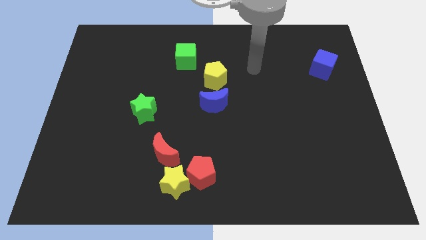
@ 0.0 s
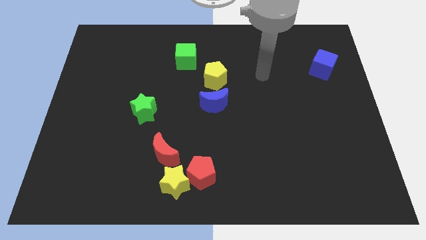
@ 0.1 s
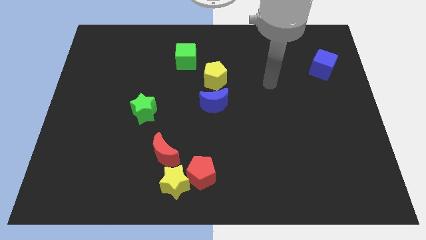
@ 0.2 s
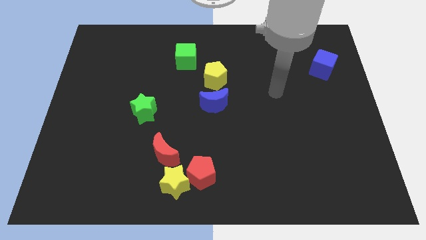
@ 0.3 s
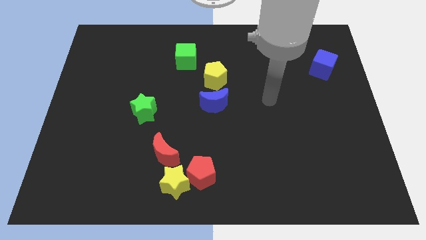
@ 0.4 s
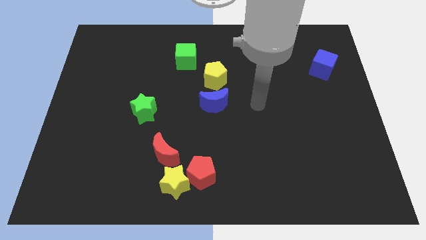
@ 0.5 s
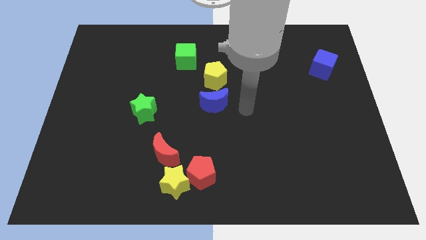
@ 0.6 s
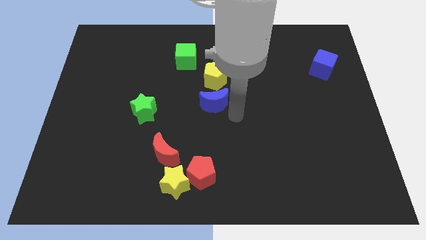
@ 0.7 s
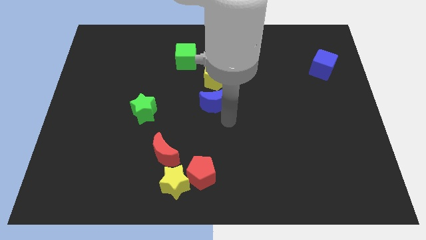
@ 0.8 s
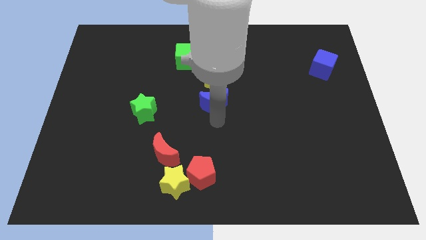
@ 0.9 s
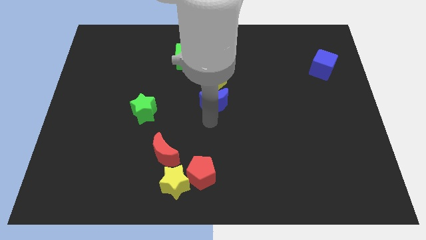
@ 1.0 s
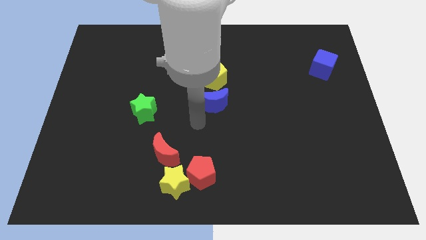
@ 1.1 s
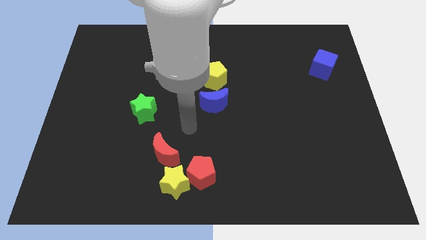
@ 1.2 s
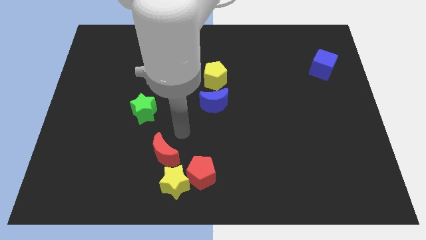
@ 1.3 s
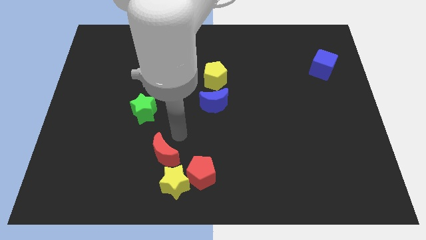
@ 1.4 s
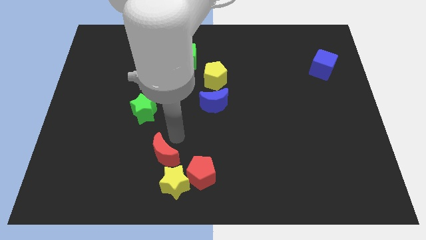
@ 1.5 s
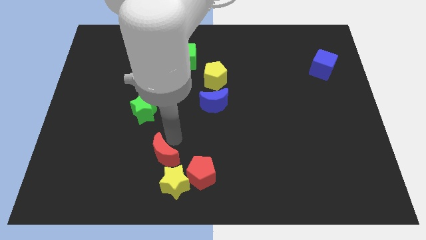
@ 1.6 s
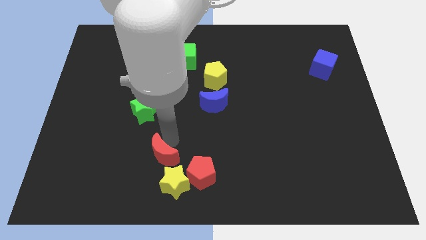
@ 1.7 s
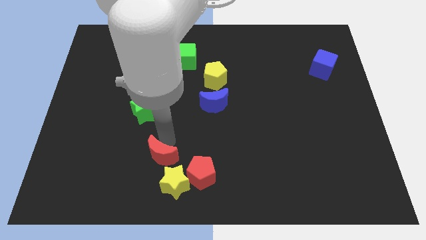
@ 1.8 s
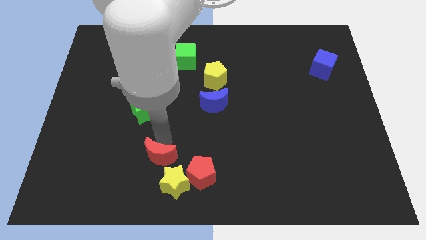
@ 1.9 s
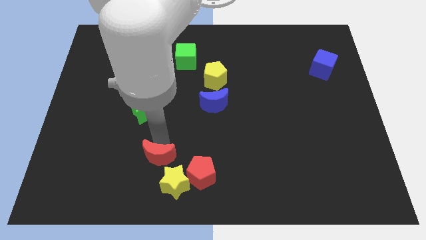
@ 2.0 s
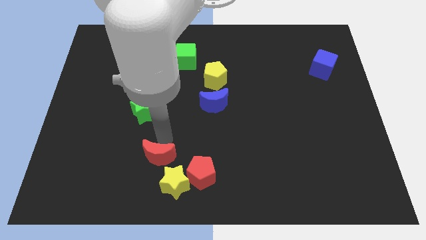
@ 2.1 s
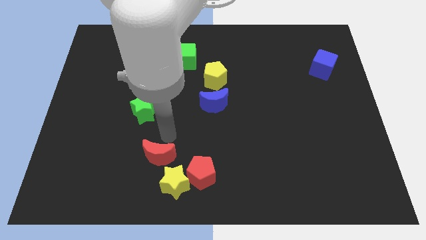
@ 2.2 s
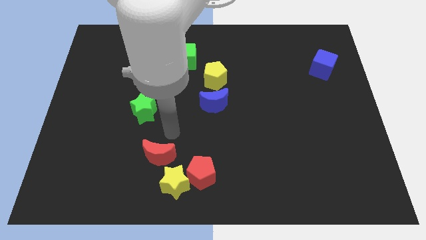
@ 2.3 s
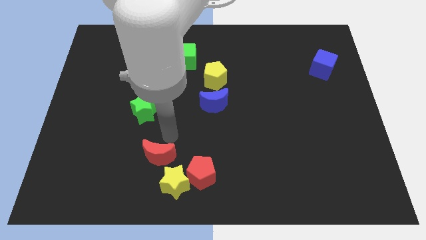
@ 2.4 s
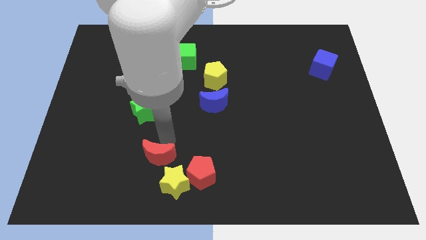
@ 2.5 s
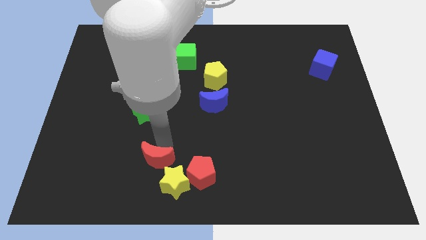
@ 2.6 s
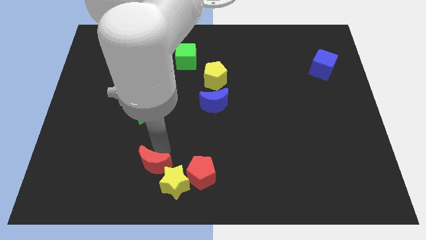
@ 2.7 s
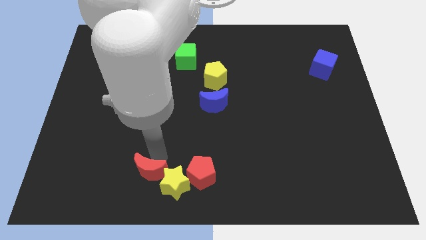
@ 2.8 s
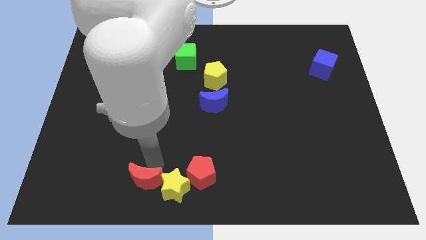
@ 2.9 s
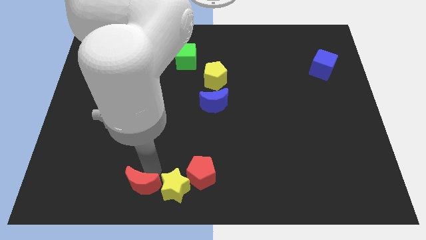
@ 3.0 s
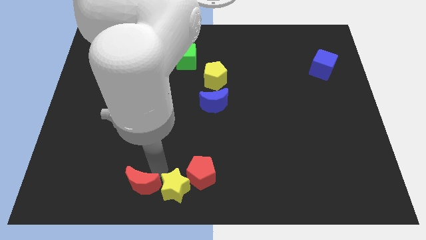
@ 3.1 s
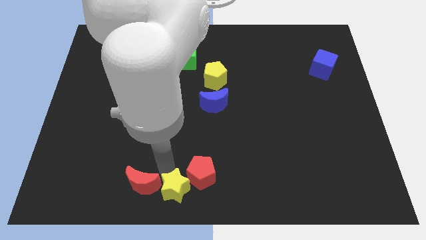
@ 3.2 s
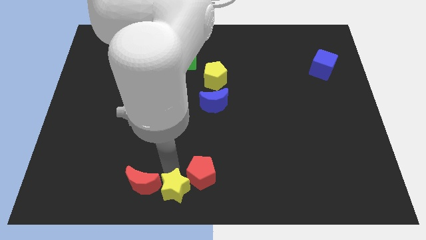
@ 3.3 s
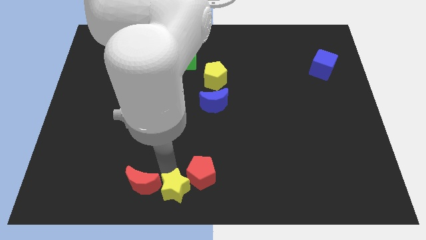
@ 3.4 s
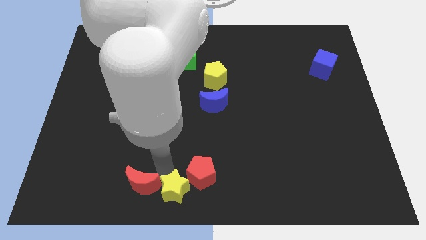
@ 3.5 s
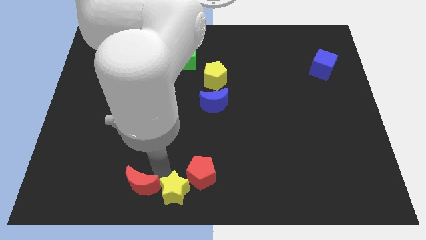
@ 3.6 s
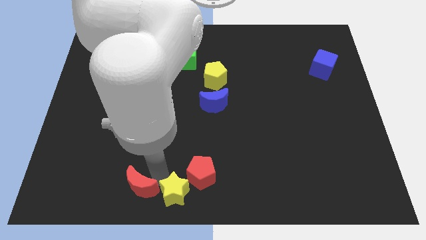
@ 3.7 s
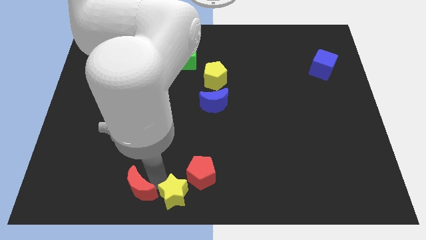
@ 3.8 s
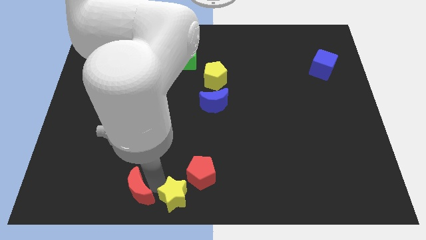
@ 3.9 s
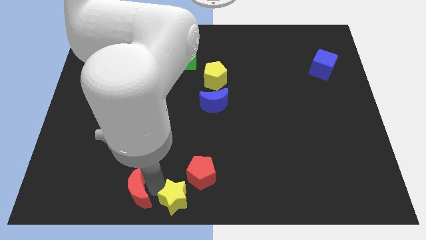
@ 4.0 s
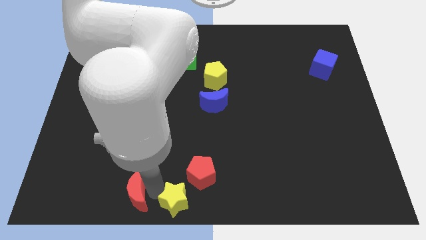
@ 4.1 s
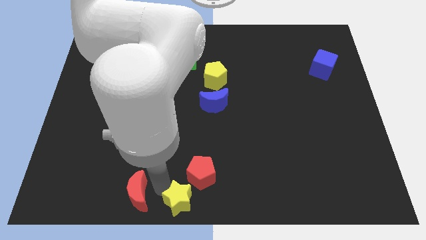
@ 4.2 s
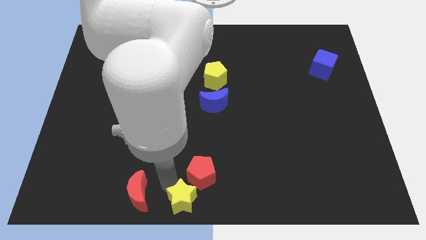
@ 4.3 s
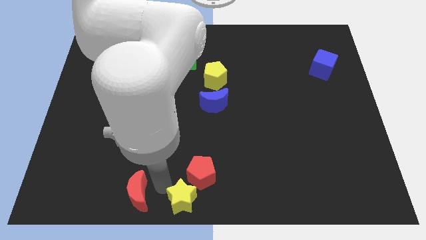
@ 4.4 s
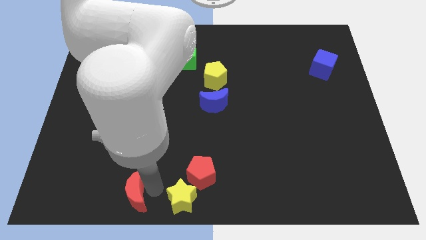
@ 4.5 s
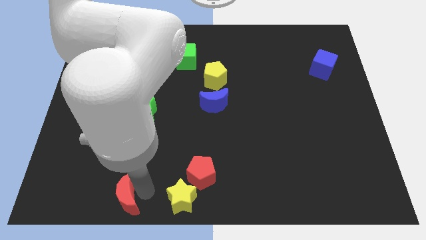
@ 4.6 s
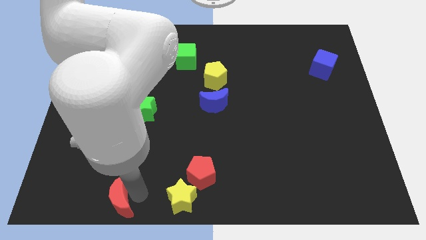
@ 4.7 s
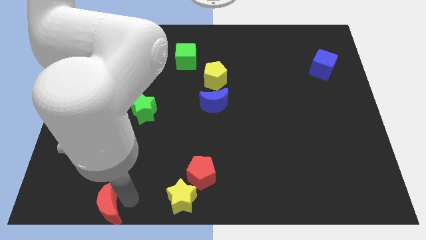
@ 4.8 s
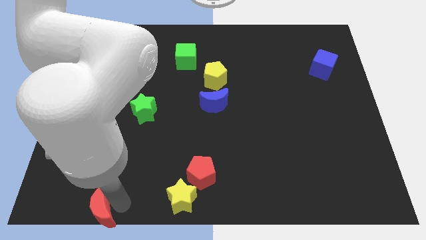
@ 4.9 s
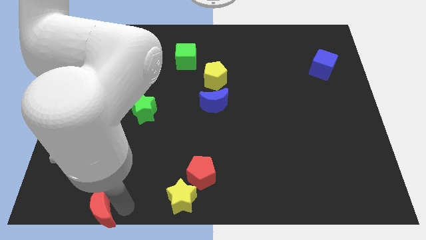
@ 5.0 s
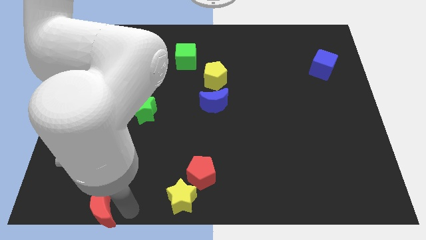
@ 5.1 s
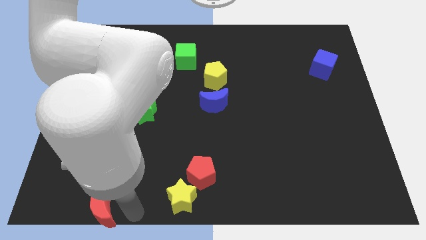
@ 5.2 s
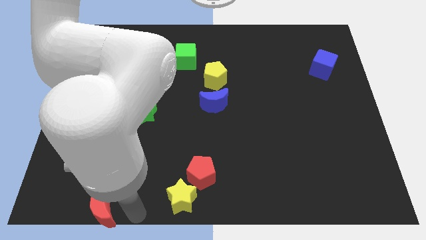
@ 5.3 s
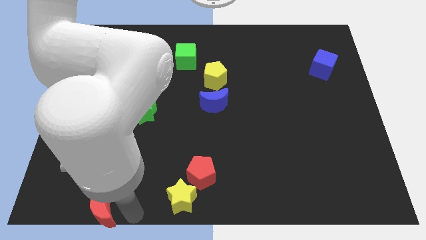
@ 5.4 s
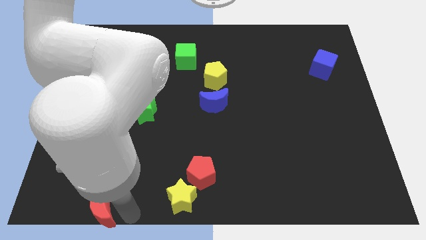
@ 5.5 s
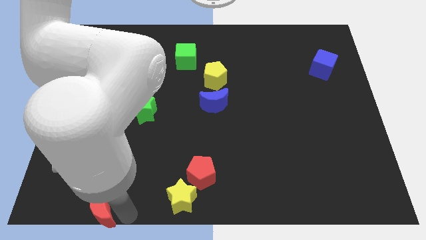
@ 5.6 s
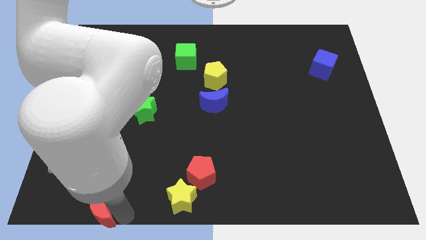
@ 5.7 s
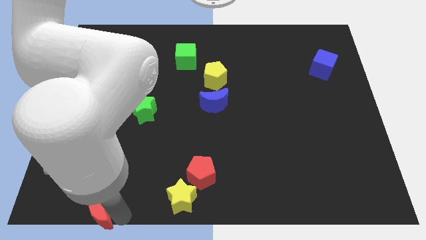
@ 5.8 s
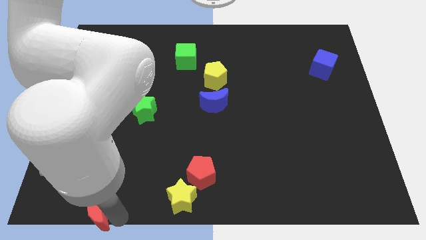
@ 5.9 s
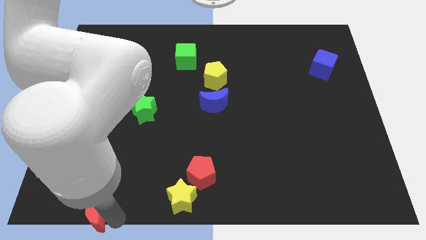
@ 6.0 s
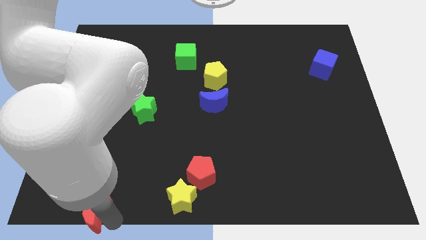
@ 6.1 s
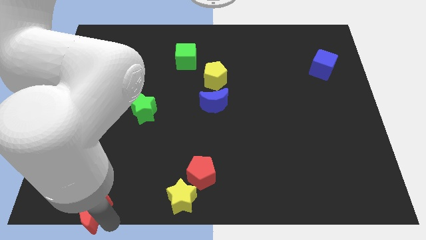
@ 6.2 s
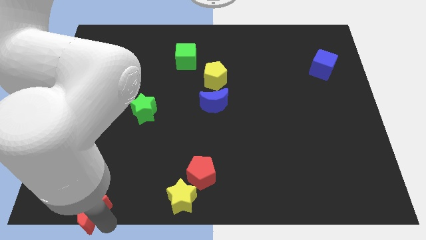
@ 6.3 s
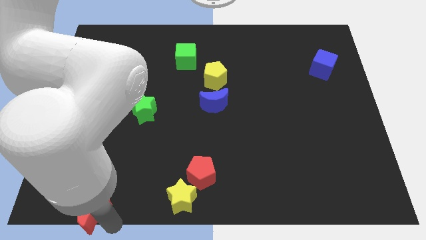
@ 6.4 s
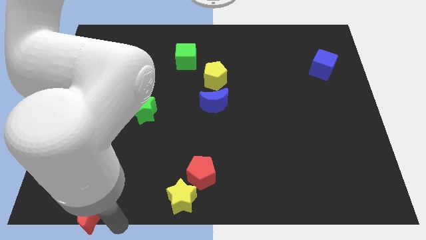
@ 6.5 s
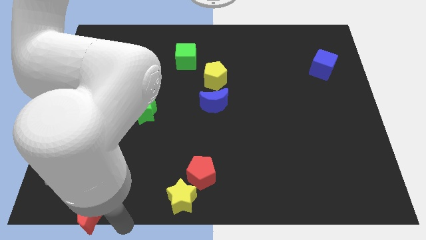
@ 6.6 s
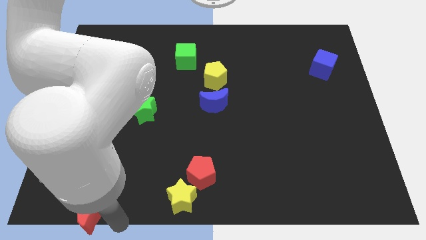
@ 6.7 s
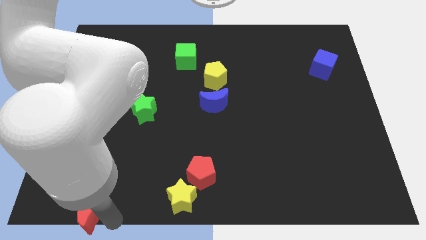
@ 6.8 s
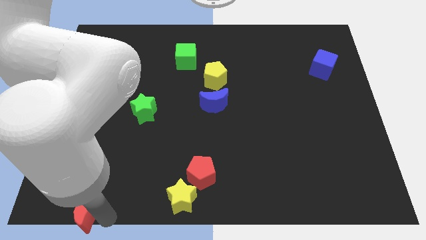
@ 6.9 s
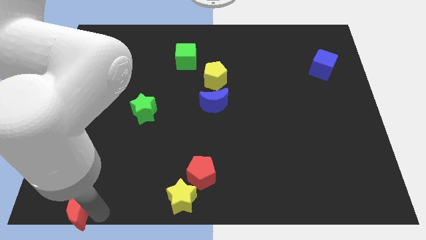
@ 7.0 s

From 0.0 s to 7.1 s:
push the red moon to the bottom left
